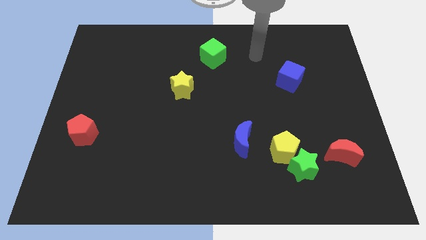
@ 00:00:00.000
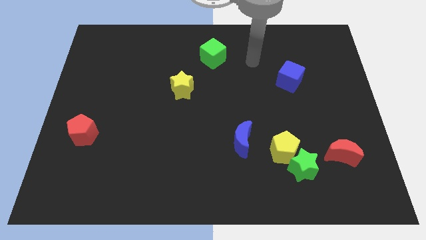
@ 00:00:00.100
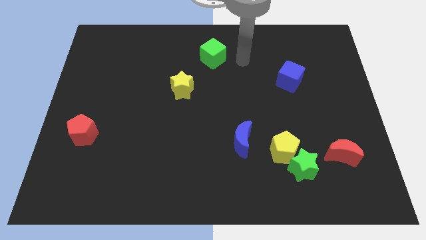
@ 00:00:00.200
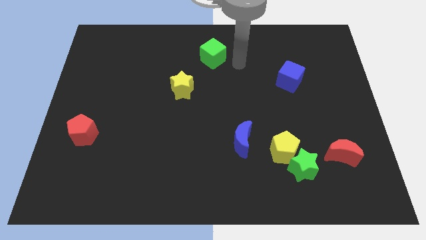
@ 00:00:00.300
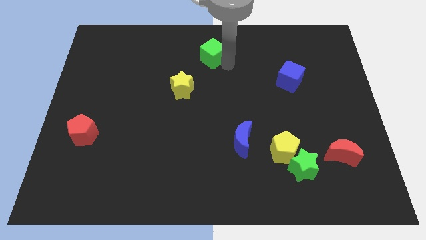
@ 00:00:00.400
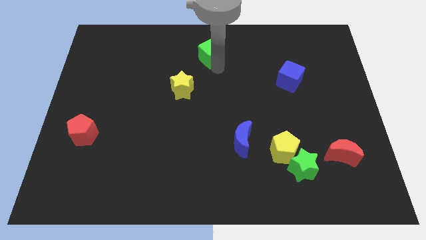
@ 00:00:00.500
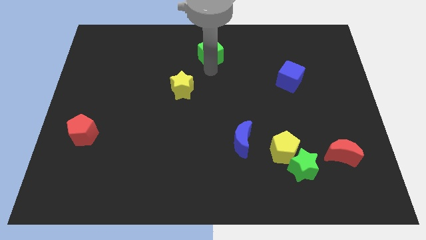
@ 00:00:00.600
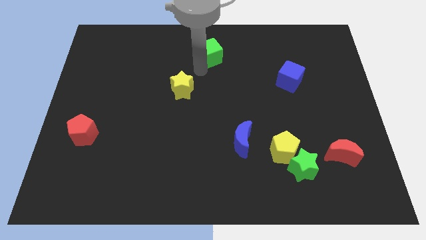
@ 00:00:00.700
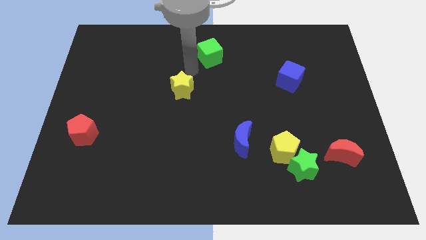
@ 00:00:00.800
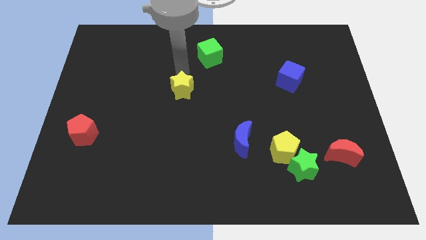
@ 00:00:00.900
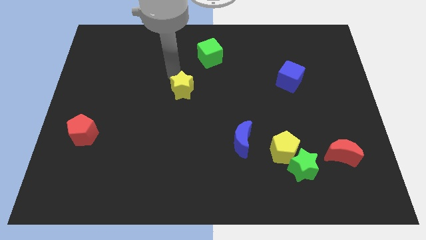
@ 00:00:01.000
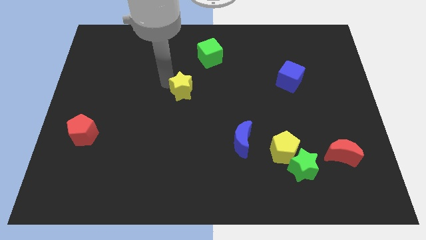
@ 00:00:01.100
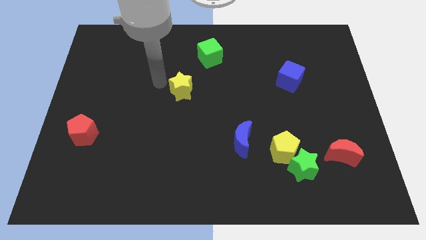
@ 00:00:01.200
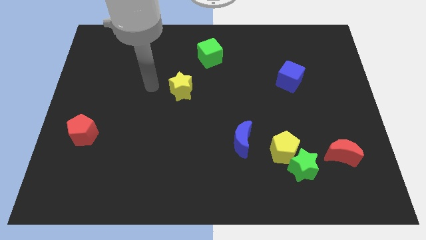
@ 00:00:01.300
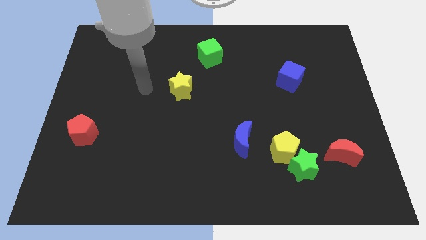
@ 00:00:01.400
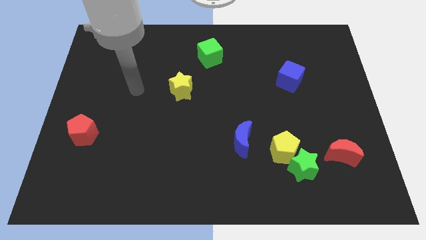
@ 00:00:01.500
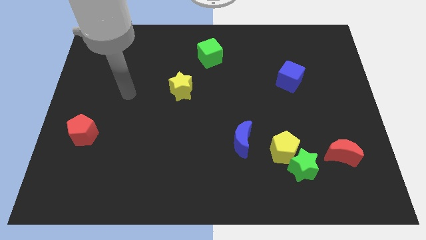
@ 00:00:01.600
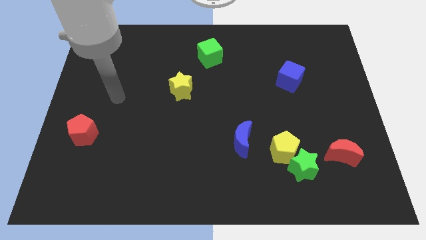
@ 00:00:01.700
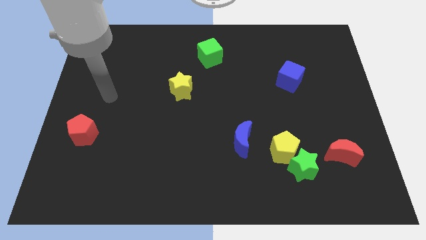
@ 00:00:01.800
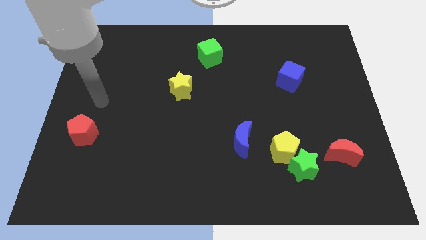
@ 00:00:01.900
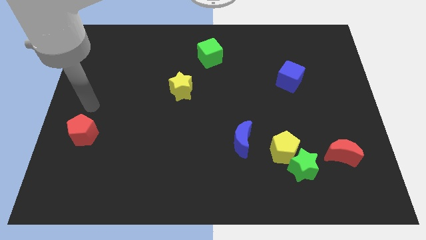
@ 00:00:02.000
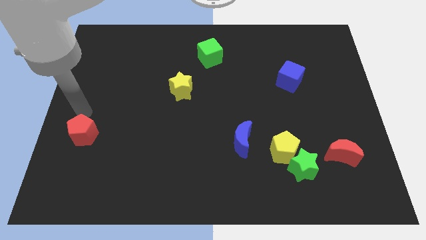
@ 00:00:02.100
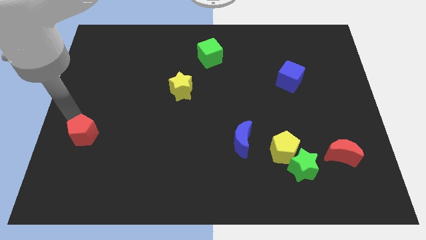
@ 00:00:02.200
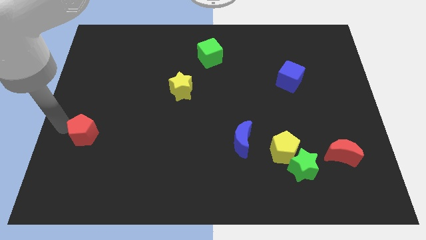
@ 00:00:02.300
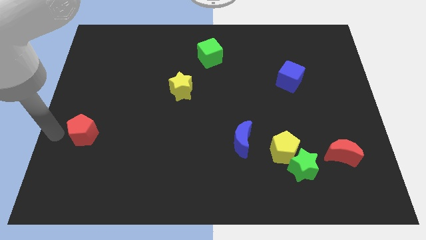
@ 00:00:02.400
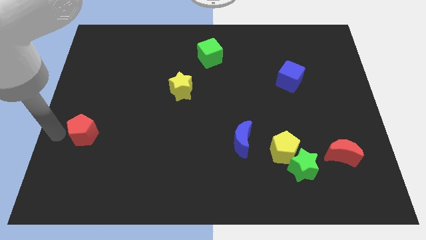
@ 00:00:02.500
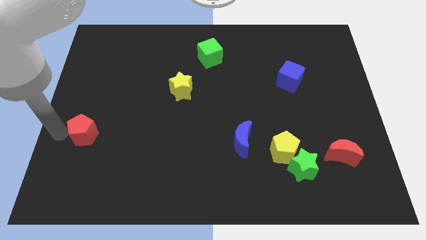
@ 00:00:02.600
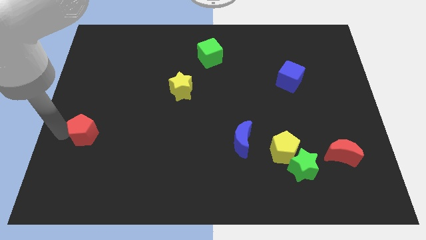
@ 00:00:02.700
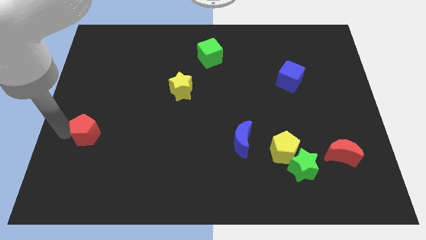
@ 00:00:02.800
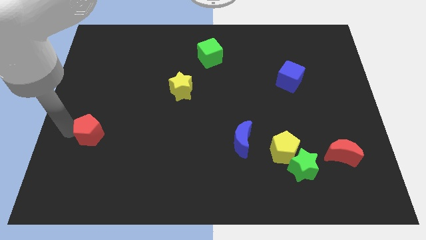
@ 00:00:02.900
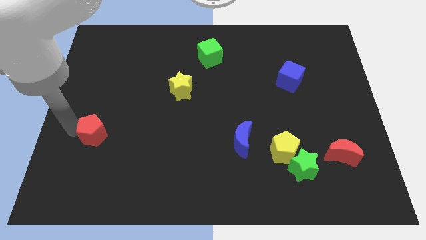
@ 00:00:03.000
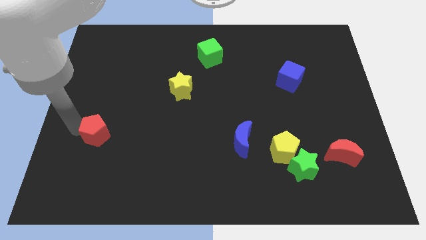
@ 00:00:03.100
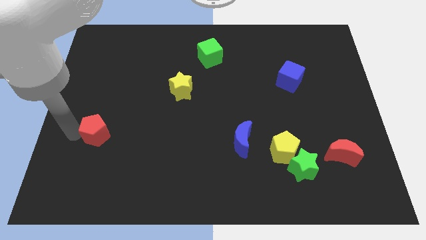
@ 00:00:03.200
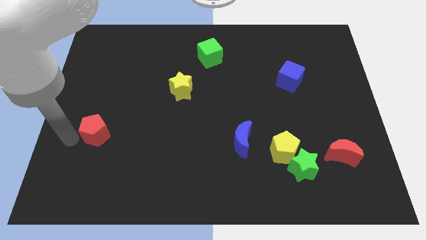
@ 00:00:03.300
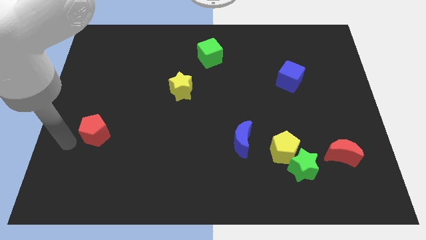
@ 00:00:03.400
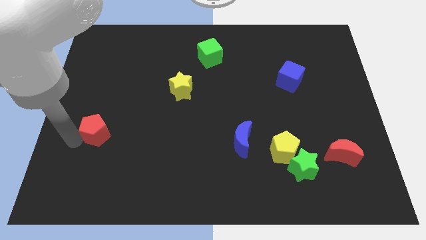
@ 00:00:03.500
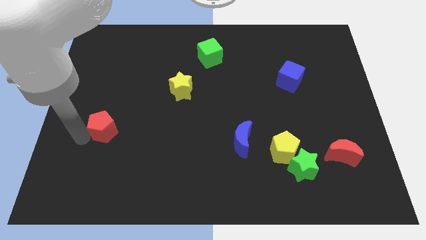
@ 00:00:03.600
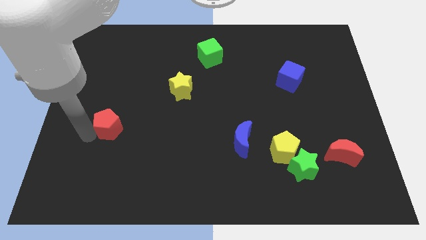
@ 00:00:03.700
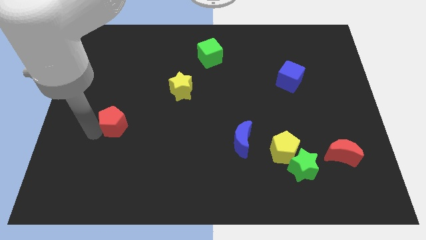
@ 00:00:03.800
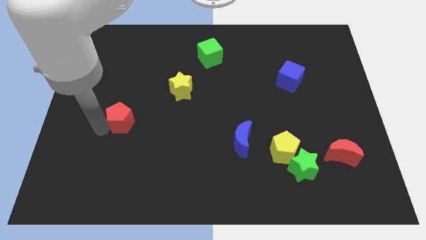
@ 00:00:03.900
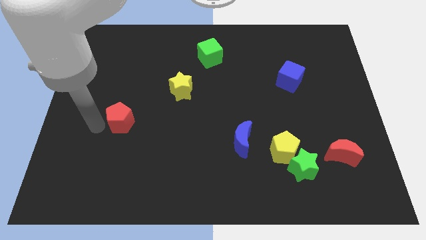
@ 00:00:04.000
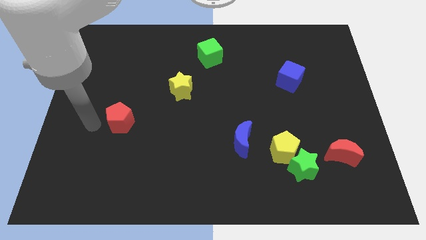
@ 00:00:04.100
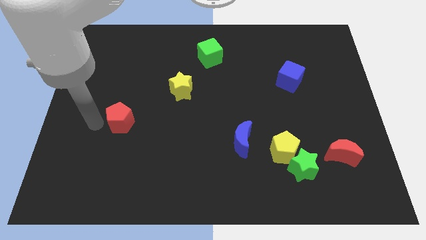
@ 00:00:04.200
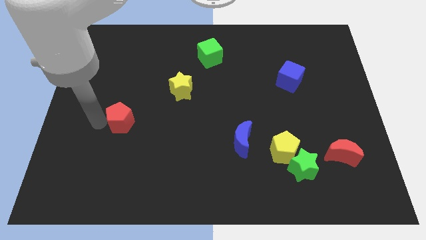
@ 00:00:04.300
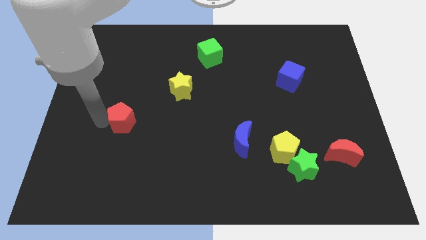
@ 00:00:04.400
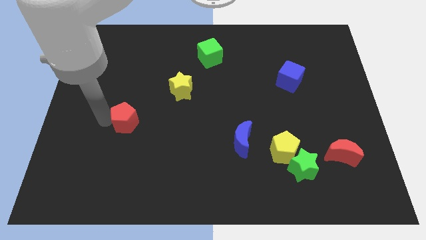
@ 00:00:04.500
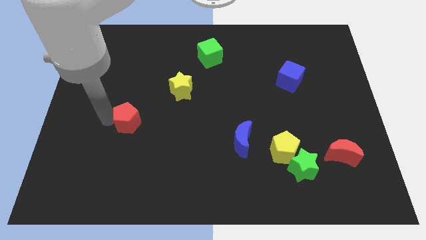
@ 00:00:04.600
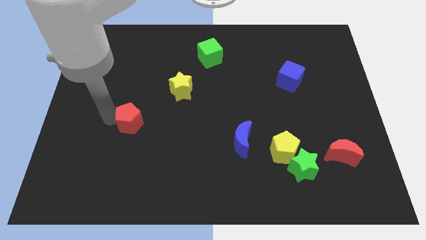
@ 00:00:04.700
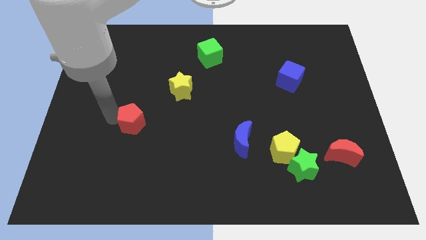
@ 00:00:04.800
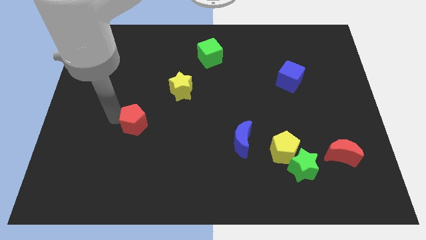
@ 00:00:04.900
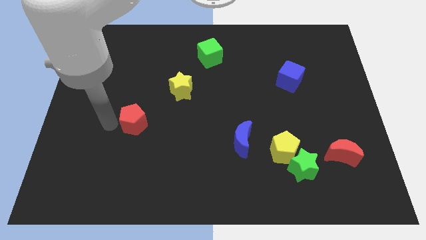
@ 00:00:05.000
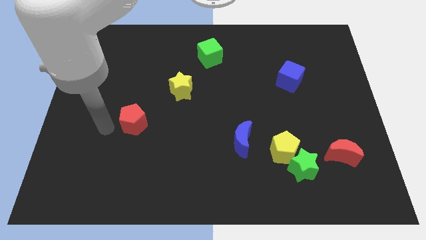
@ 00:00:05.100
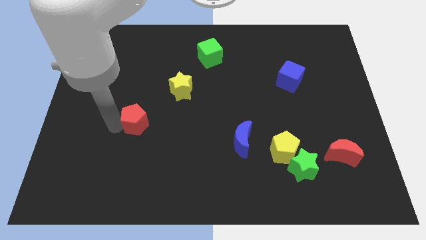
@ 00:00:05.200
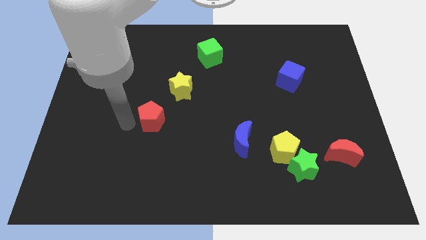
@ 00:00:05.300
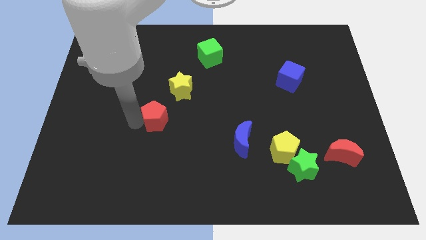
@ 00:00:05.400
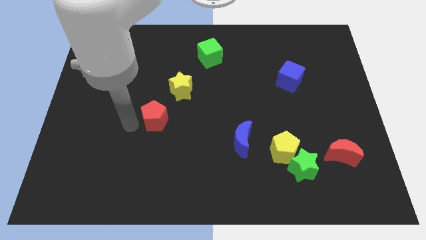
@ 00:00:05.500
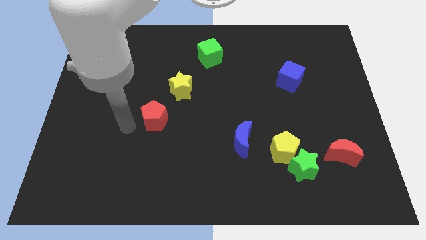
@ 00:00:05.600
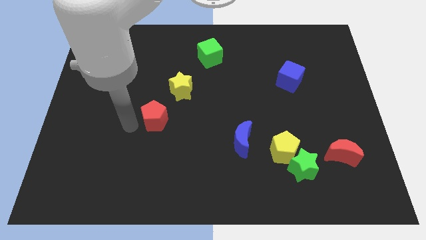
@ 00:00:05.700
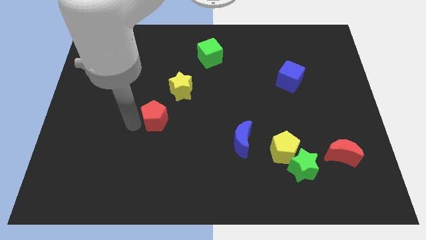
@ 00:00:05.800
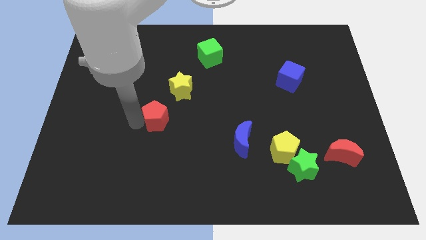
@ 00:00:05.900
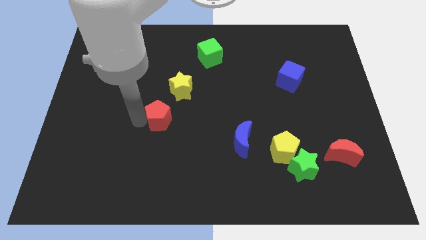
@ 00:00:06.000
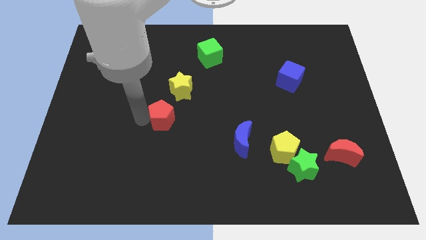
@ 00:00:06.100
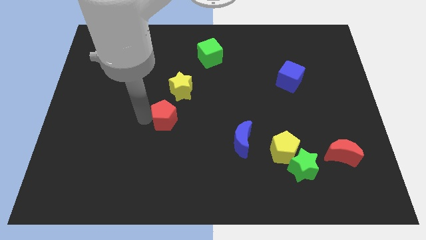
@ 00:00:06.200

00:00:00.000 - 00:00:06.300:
slide the red pentagon to the middle of the board

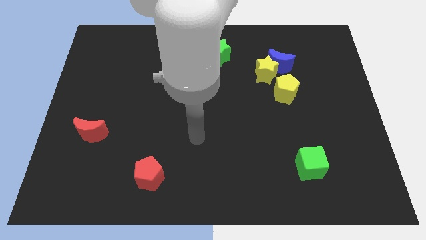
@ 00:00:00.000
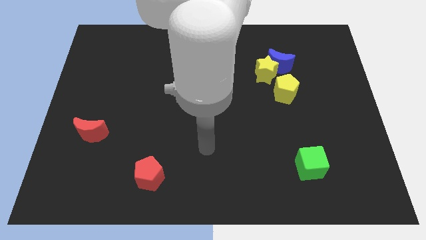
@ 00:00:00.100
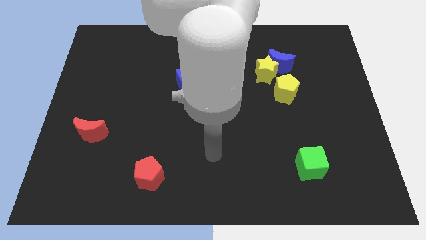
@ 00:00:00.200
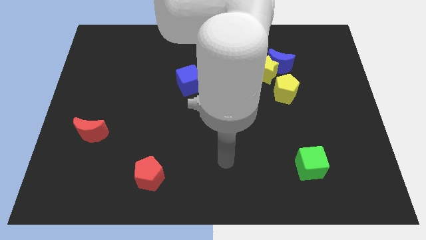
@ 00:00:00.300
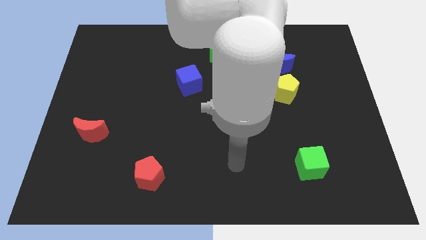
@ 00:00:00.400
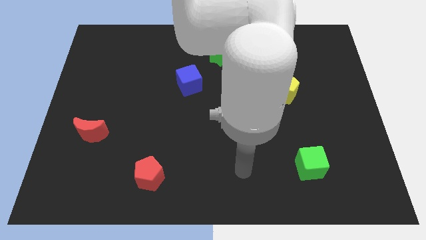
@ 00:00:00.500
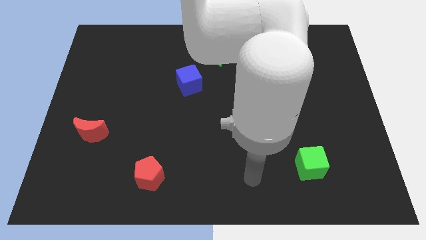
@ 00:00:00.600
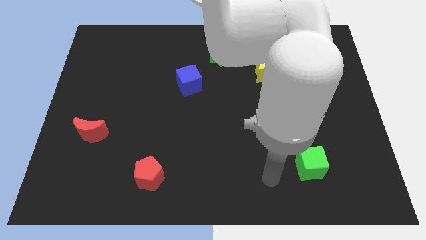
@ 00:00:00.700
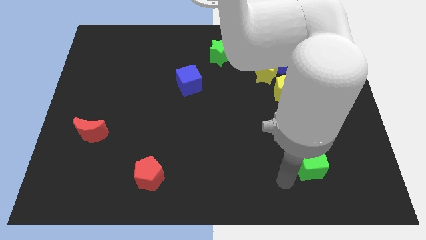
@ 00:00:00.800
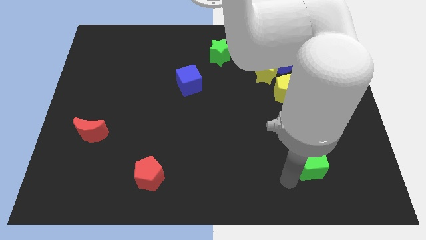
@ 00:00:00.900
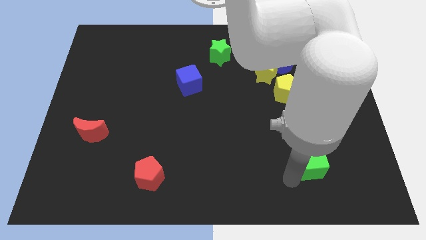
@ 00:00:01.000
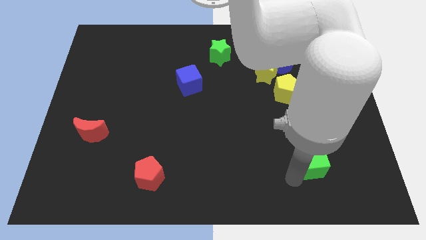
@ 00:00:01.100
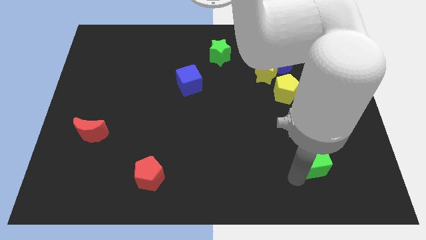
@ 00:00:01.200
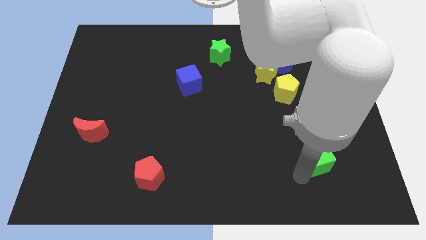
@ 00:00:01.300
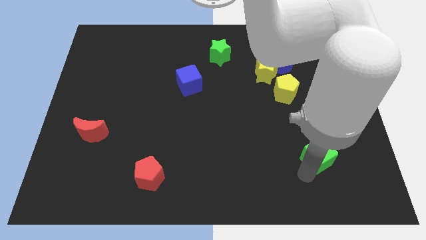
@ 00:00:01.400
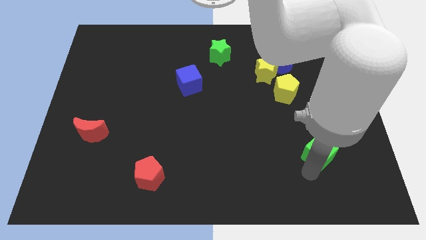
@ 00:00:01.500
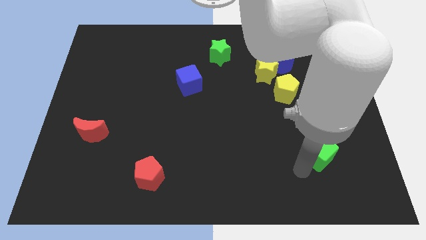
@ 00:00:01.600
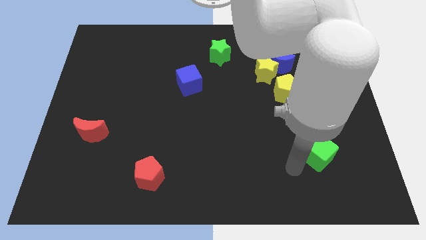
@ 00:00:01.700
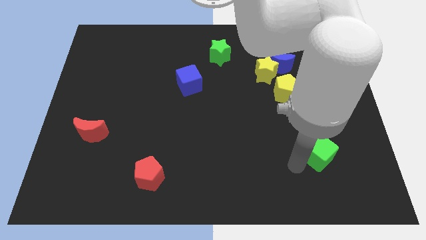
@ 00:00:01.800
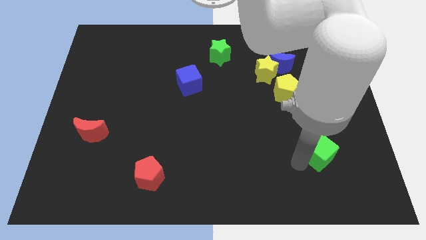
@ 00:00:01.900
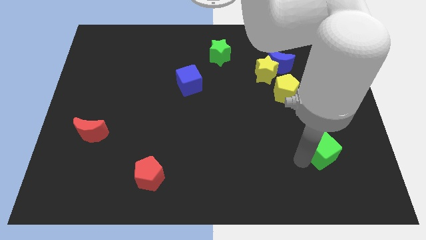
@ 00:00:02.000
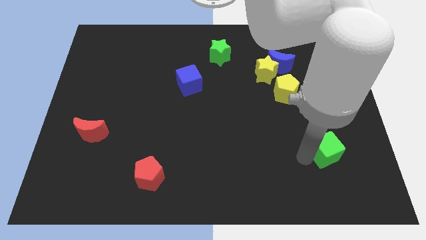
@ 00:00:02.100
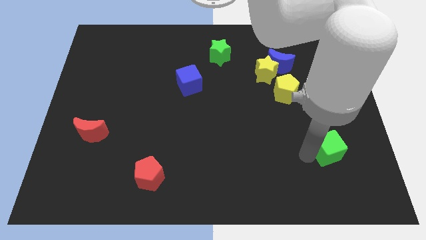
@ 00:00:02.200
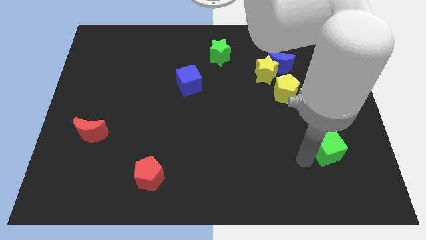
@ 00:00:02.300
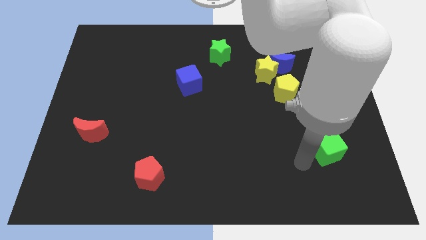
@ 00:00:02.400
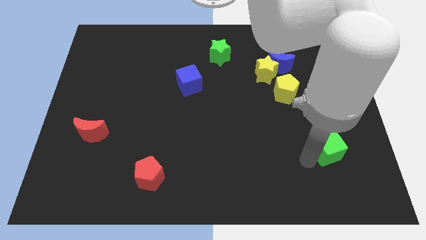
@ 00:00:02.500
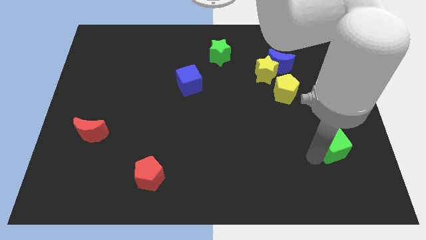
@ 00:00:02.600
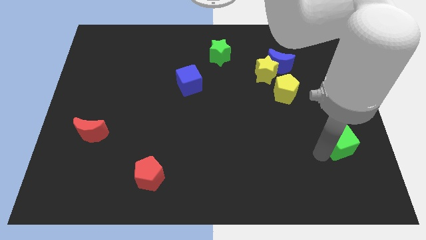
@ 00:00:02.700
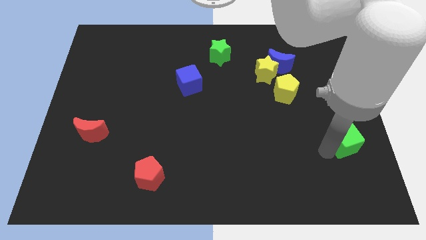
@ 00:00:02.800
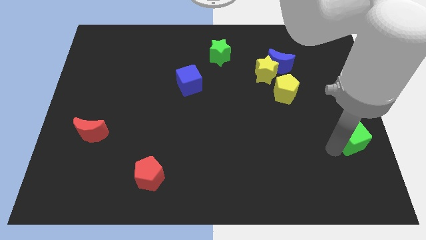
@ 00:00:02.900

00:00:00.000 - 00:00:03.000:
move the green cube to the right side
